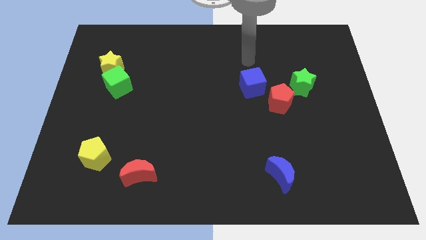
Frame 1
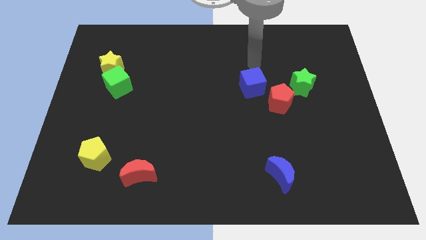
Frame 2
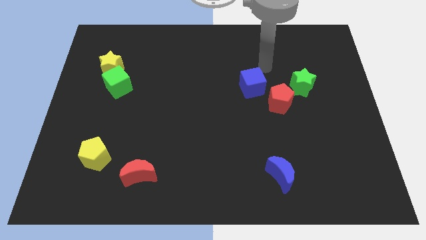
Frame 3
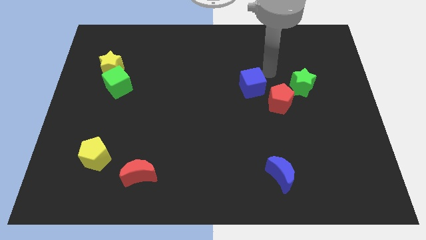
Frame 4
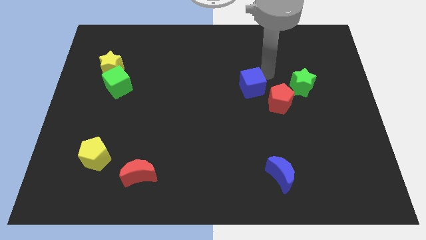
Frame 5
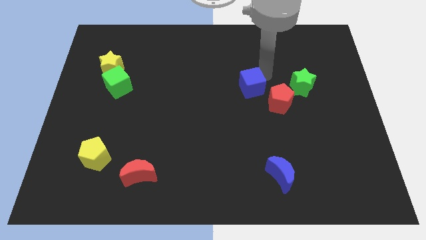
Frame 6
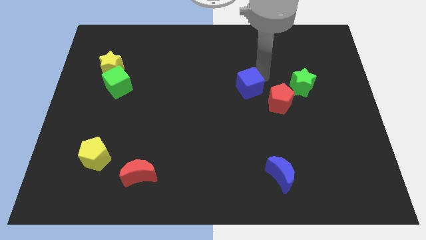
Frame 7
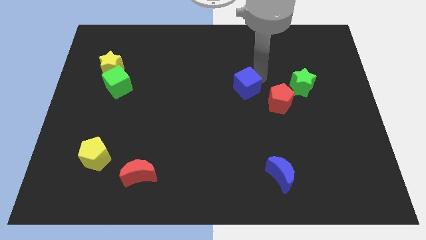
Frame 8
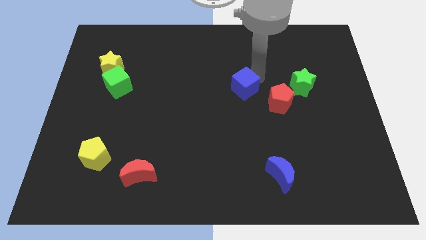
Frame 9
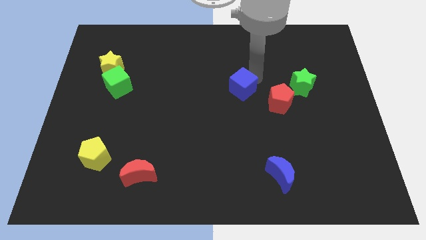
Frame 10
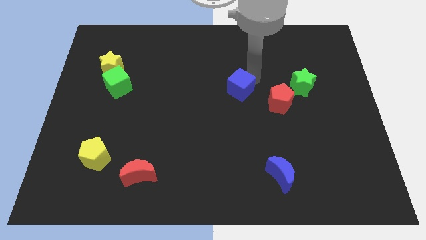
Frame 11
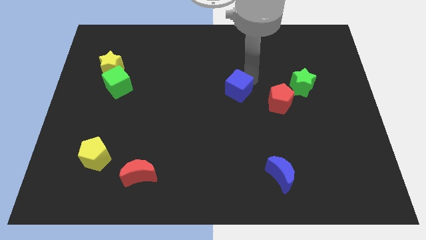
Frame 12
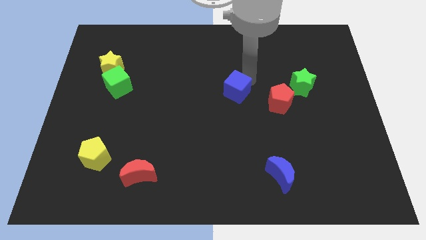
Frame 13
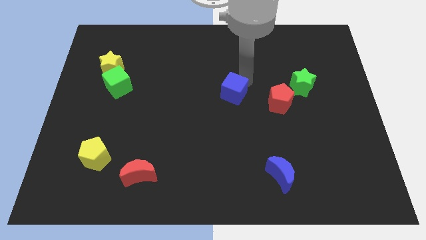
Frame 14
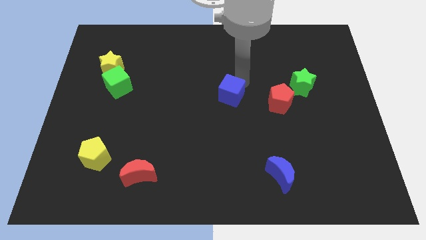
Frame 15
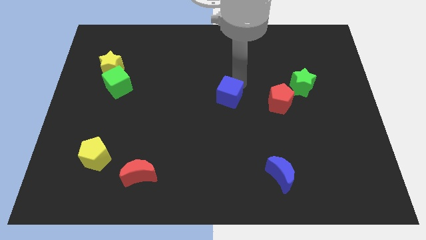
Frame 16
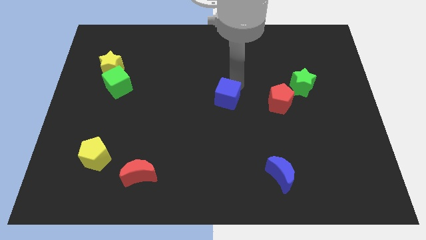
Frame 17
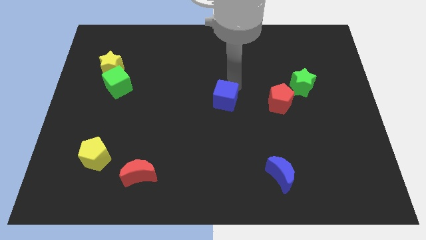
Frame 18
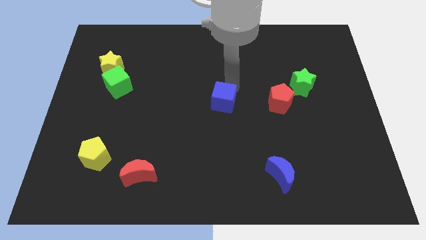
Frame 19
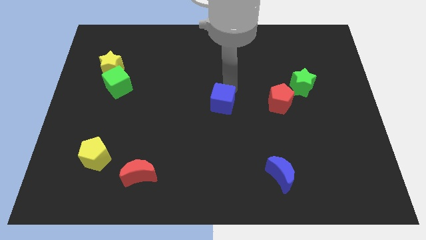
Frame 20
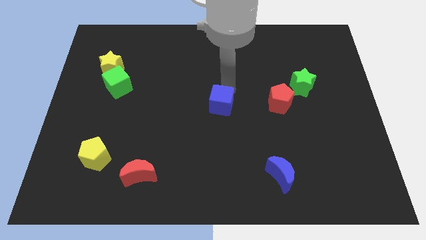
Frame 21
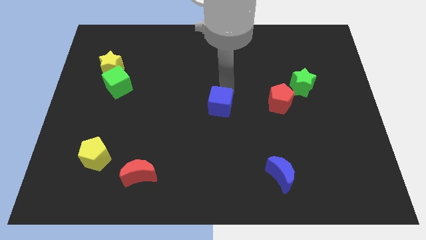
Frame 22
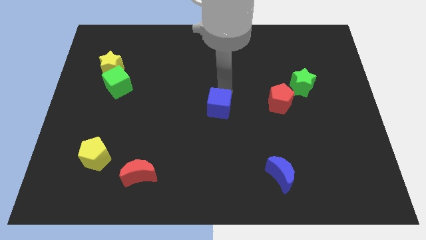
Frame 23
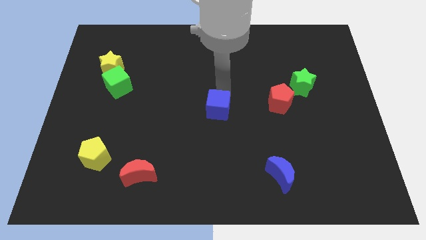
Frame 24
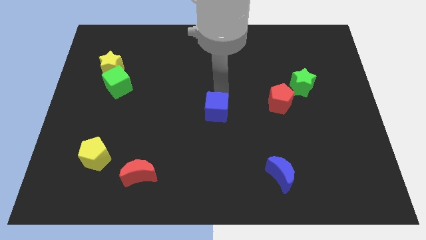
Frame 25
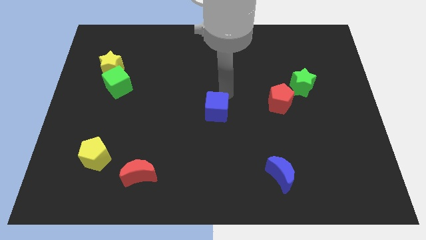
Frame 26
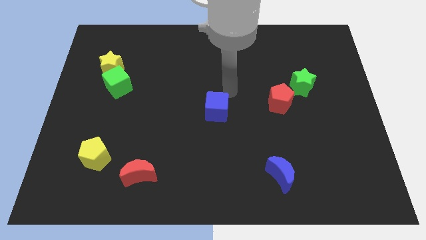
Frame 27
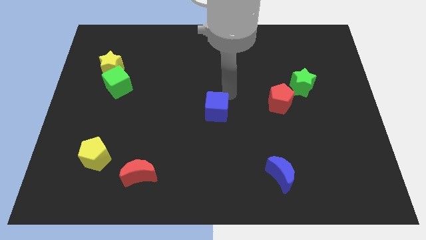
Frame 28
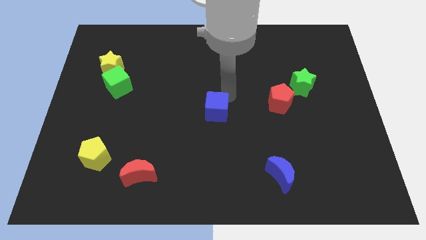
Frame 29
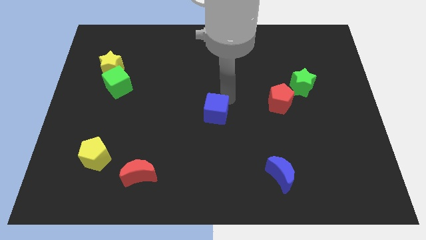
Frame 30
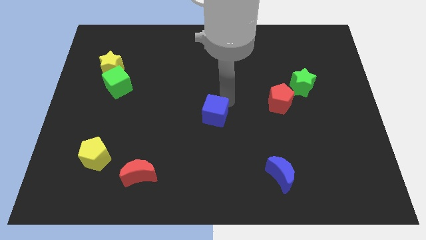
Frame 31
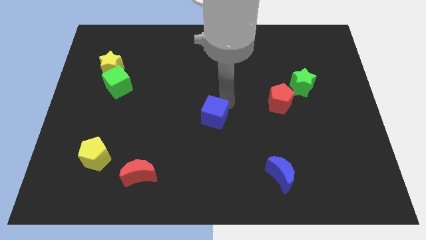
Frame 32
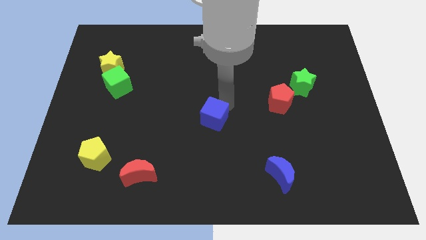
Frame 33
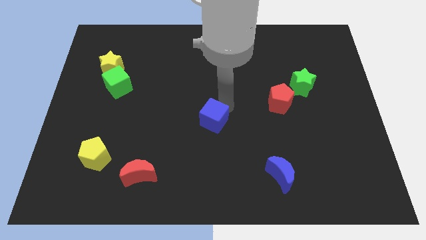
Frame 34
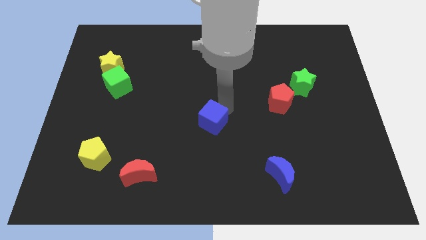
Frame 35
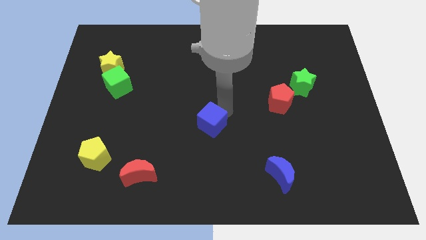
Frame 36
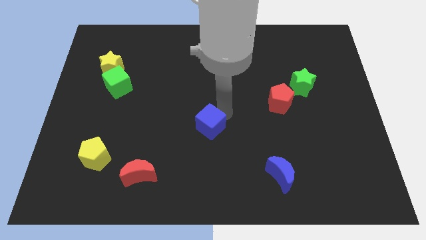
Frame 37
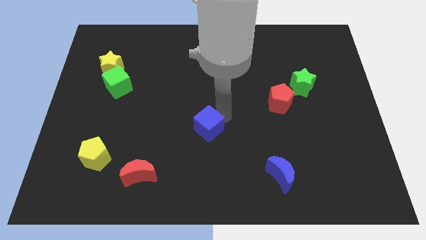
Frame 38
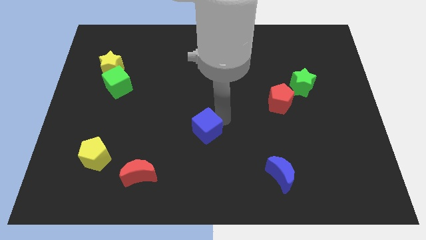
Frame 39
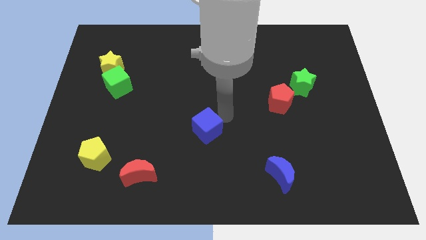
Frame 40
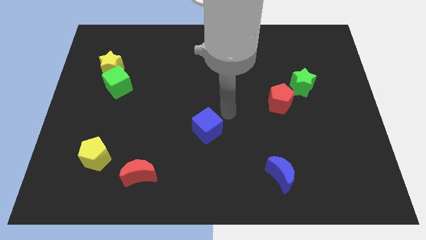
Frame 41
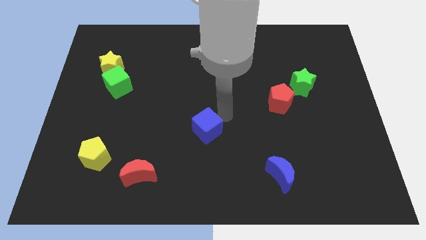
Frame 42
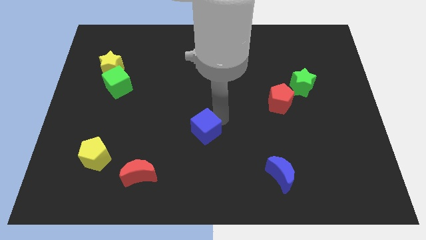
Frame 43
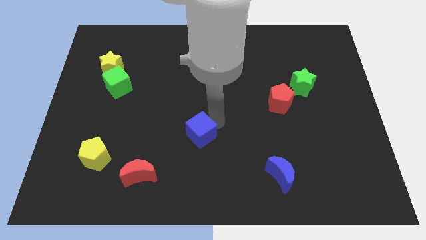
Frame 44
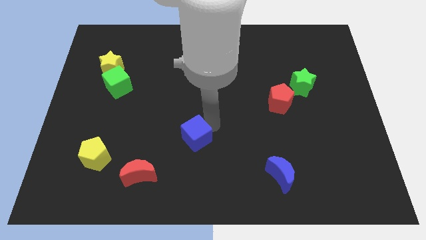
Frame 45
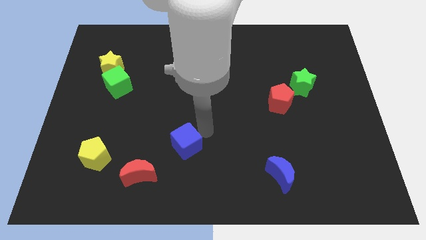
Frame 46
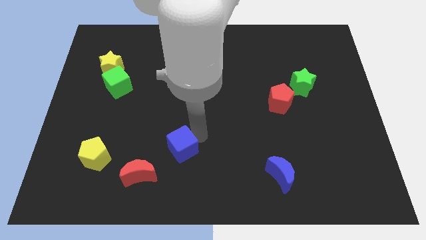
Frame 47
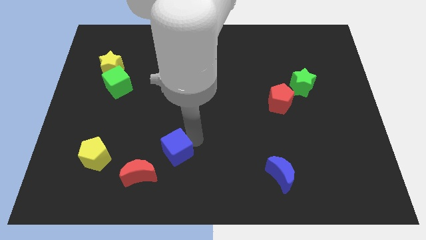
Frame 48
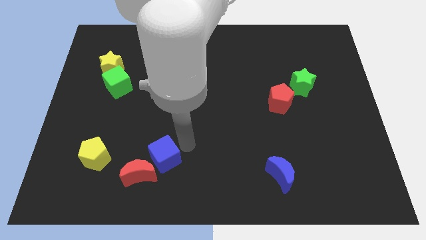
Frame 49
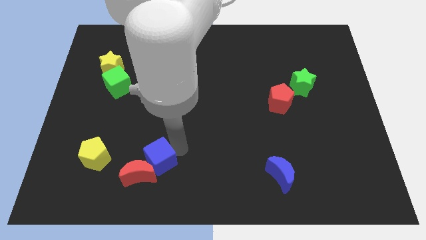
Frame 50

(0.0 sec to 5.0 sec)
put the blue cube next to the red moon
